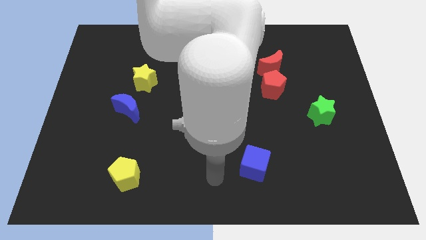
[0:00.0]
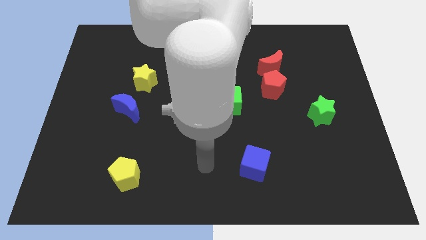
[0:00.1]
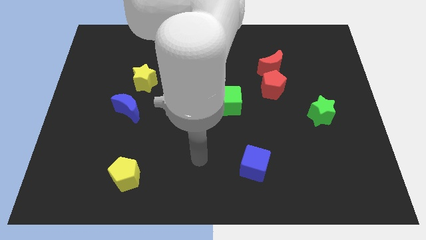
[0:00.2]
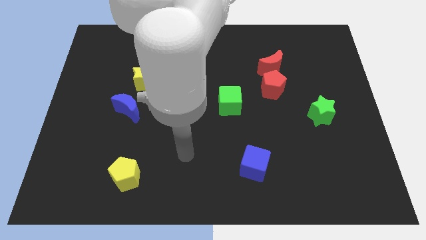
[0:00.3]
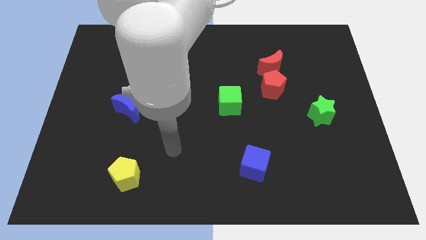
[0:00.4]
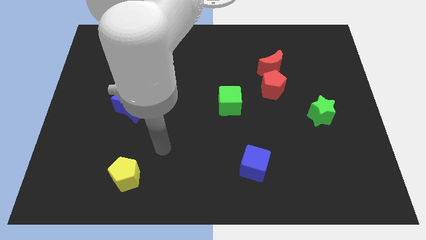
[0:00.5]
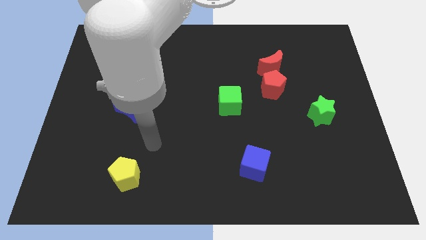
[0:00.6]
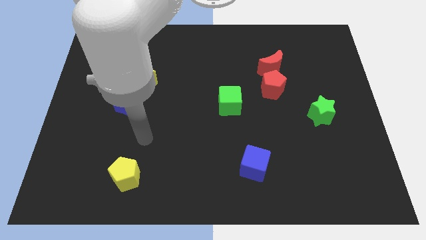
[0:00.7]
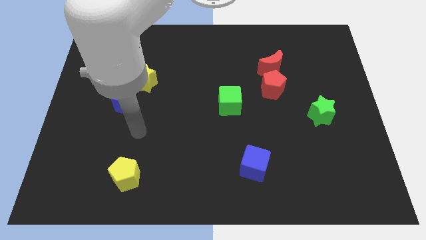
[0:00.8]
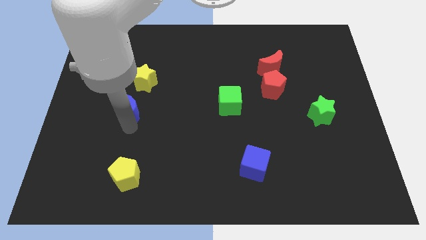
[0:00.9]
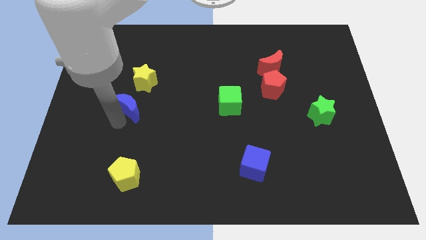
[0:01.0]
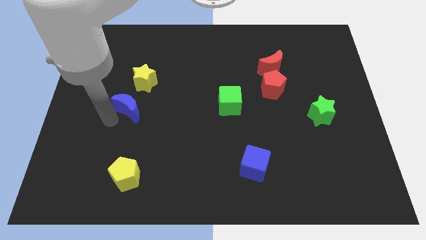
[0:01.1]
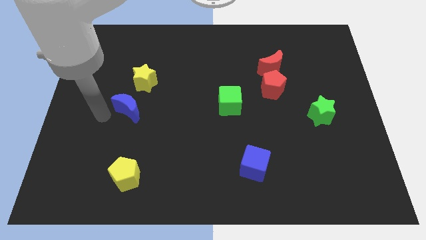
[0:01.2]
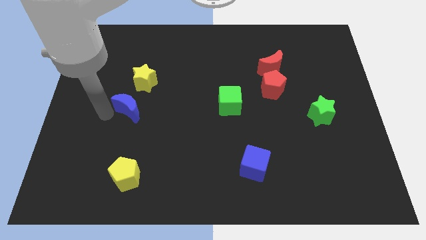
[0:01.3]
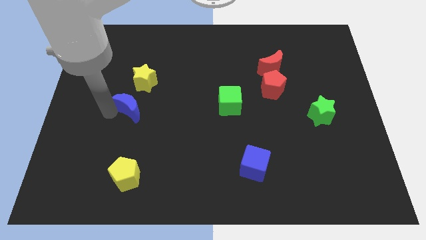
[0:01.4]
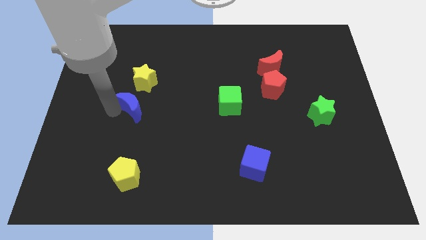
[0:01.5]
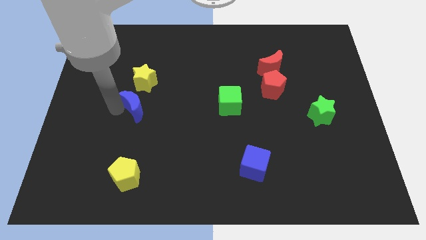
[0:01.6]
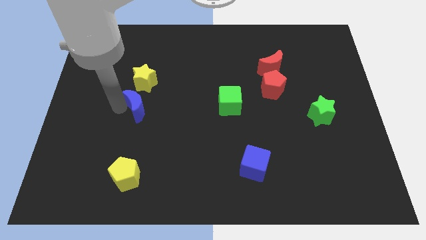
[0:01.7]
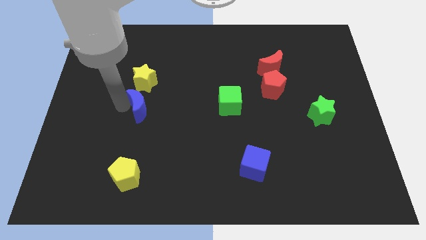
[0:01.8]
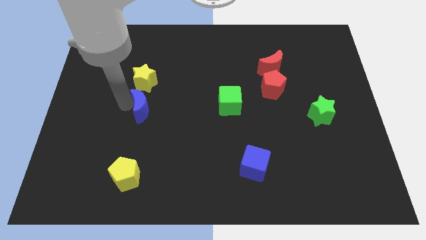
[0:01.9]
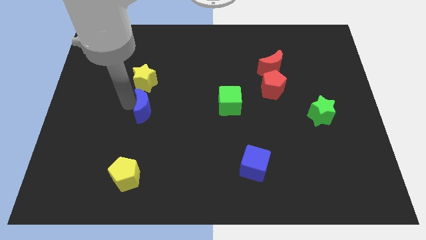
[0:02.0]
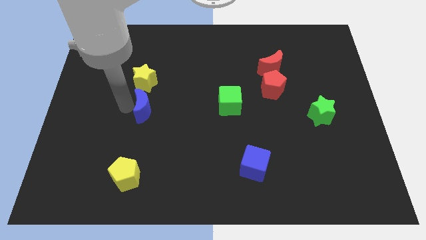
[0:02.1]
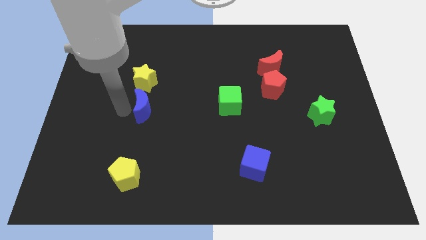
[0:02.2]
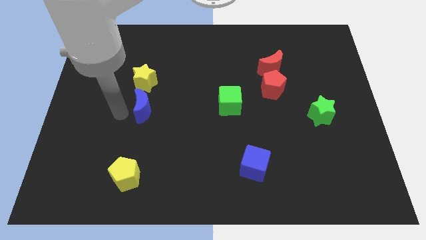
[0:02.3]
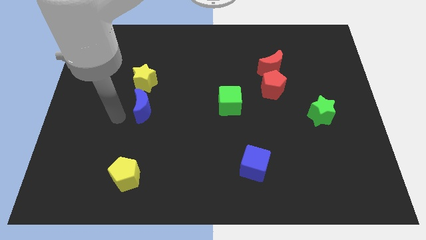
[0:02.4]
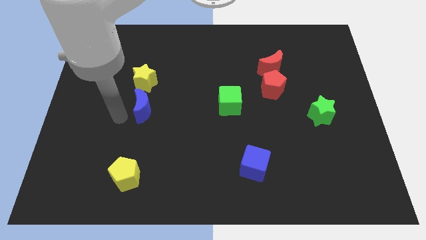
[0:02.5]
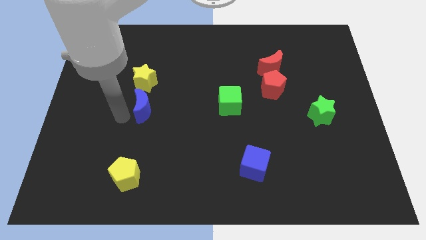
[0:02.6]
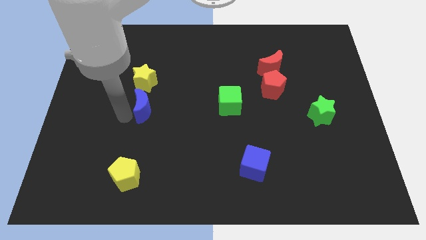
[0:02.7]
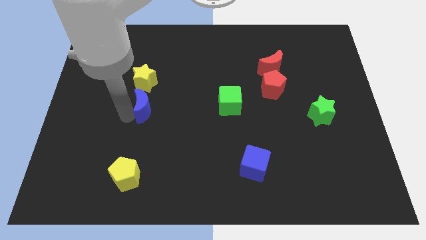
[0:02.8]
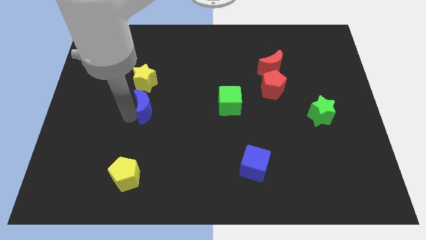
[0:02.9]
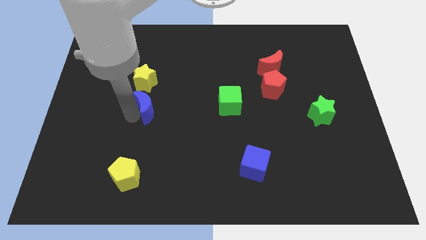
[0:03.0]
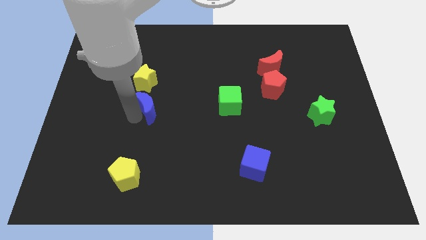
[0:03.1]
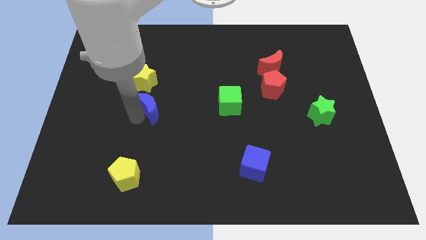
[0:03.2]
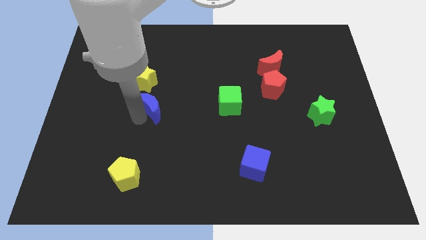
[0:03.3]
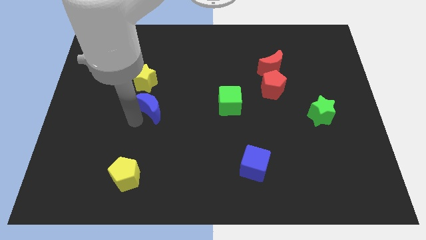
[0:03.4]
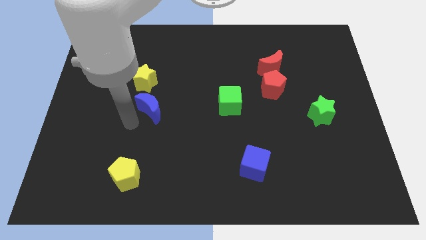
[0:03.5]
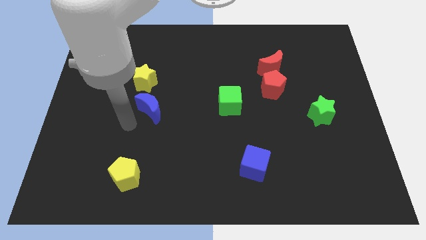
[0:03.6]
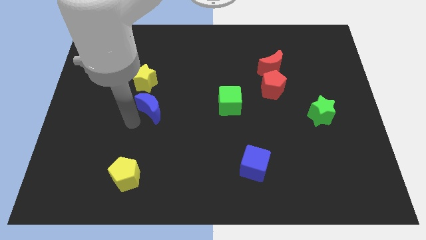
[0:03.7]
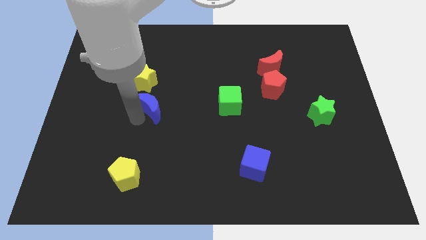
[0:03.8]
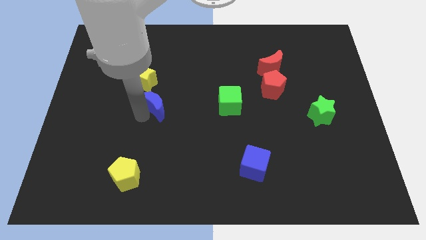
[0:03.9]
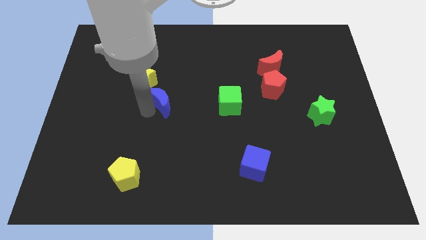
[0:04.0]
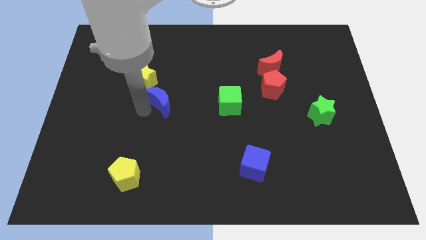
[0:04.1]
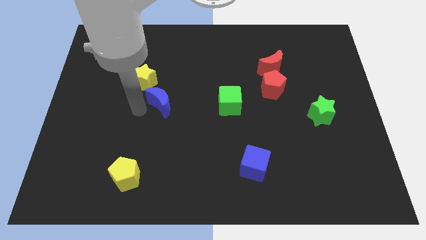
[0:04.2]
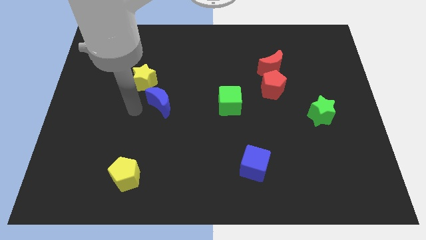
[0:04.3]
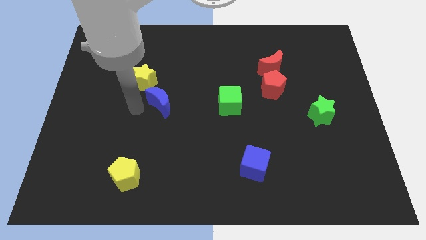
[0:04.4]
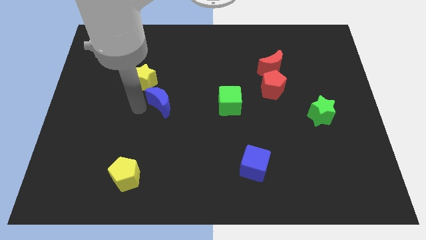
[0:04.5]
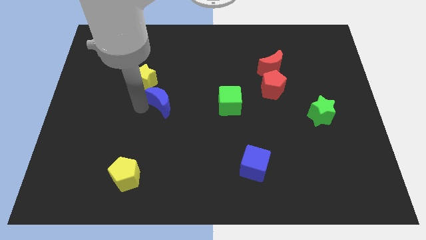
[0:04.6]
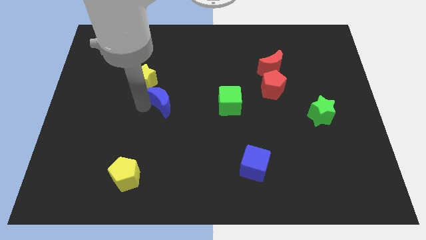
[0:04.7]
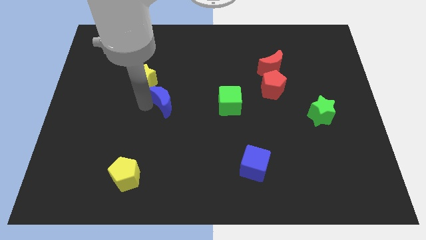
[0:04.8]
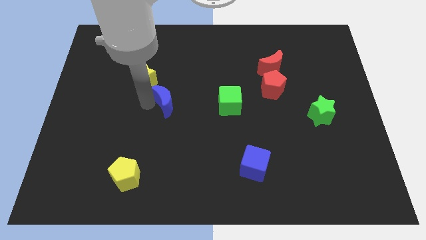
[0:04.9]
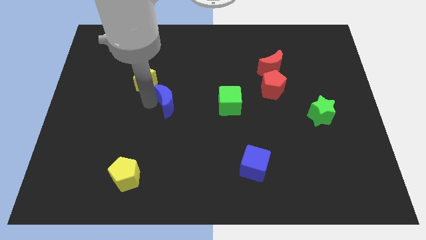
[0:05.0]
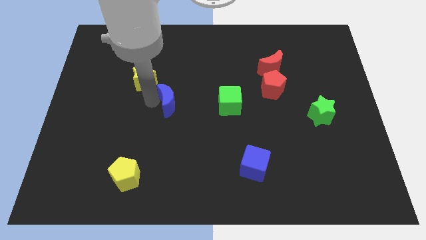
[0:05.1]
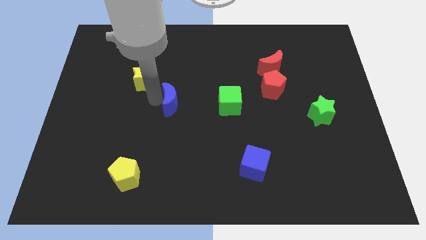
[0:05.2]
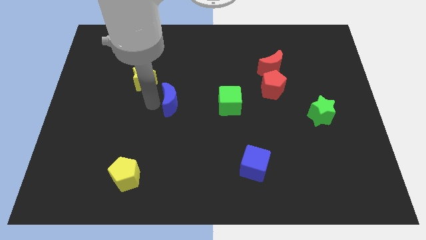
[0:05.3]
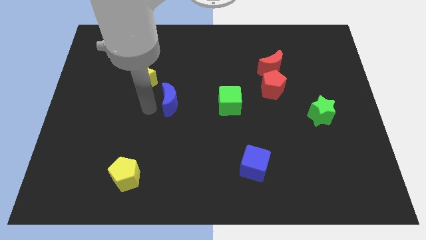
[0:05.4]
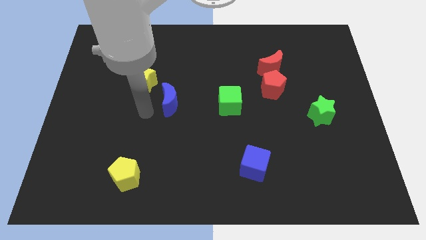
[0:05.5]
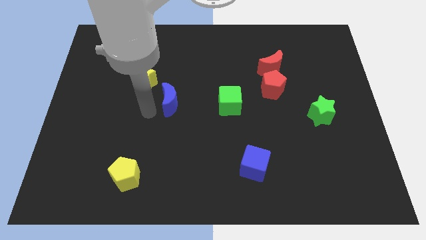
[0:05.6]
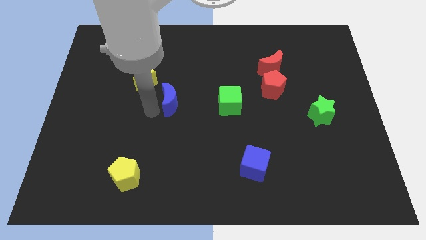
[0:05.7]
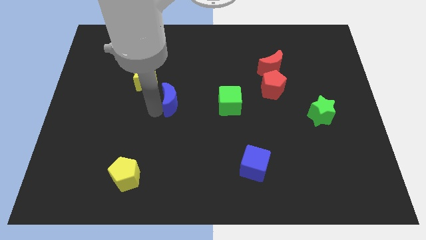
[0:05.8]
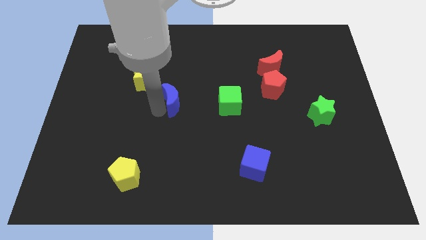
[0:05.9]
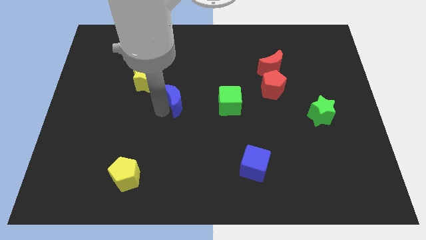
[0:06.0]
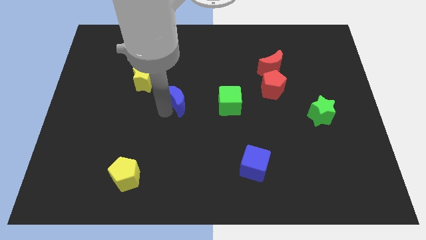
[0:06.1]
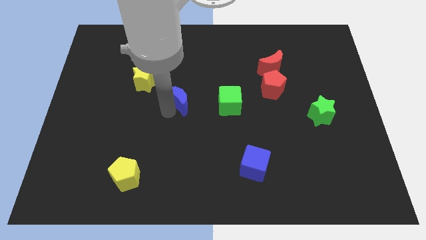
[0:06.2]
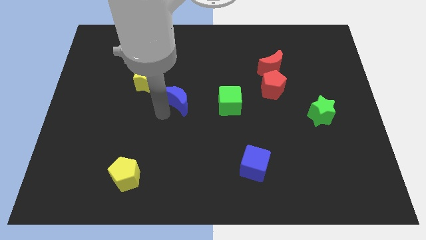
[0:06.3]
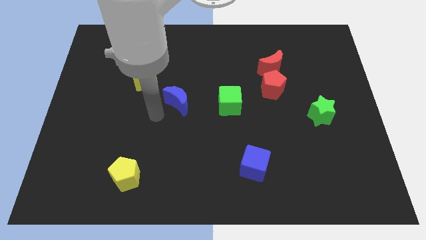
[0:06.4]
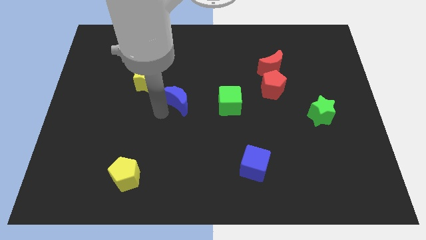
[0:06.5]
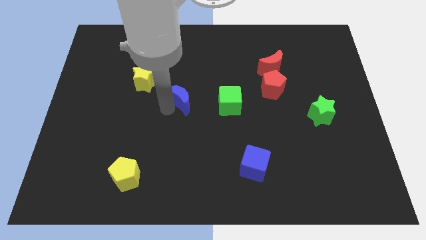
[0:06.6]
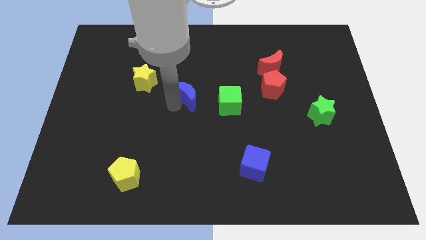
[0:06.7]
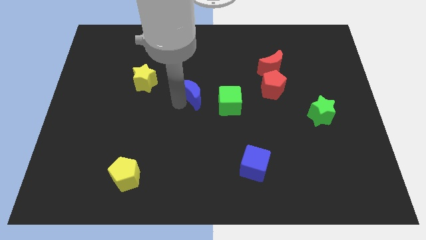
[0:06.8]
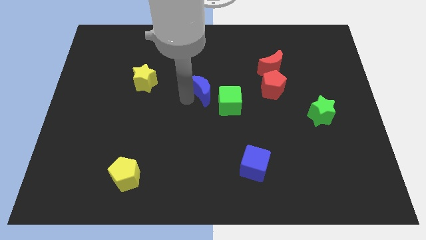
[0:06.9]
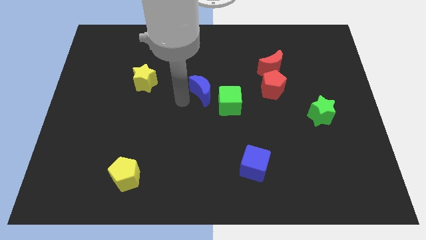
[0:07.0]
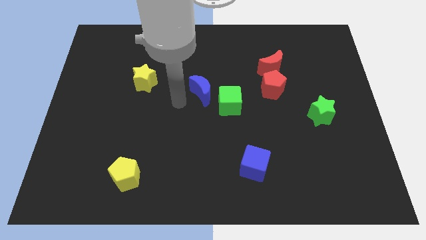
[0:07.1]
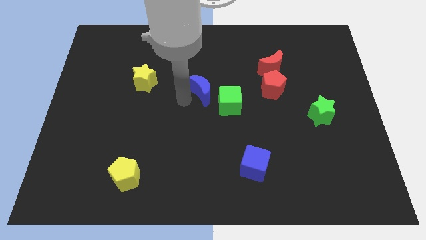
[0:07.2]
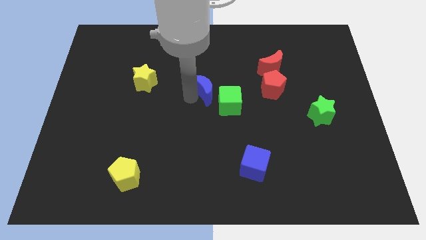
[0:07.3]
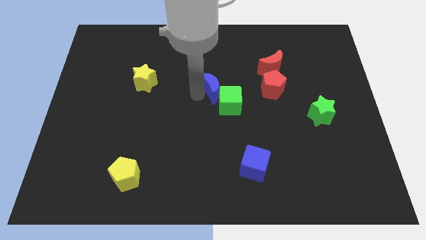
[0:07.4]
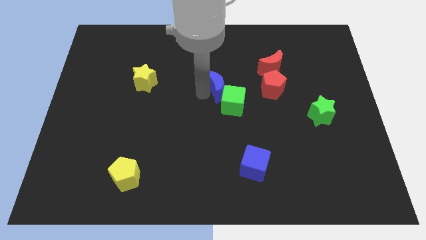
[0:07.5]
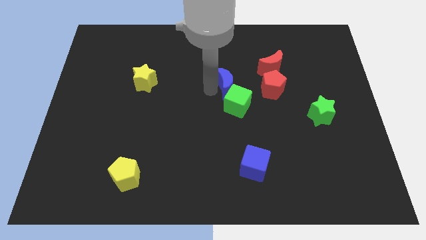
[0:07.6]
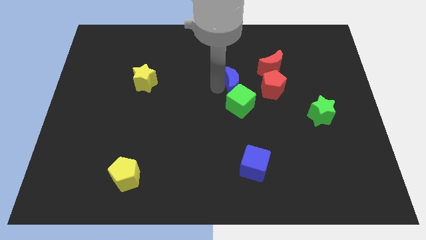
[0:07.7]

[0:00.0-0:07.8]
slide the blue moon diagonally down and to the left of the red moon

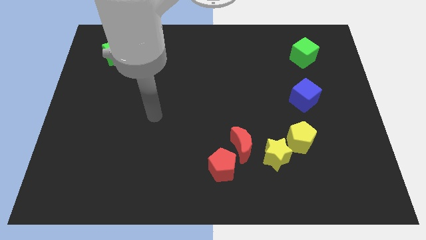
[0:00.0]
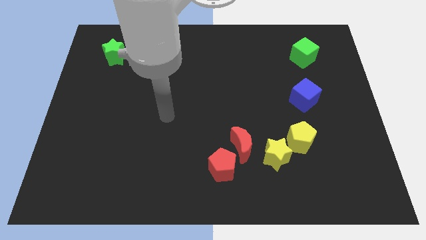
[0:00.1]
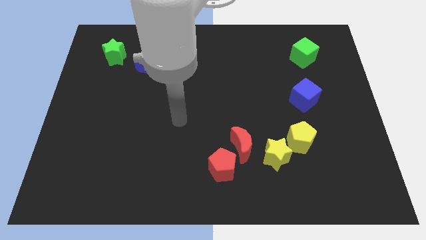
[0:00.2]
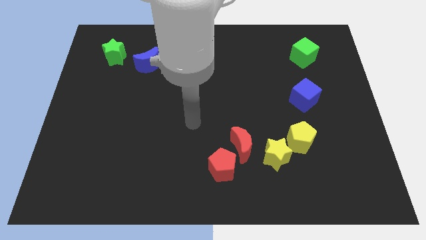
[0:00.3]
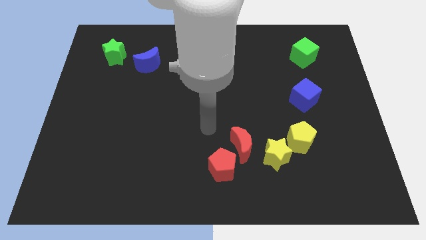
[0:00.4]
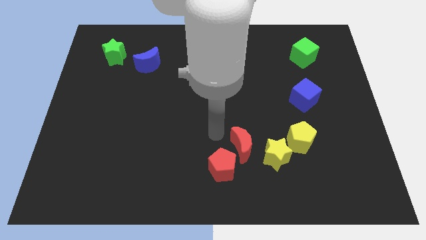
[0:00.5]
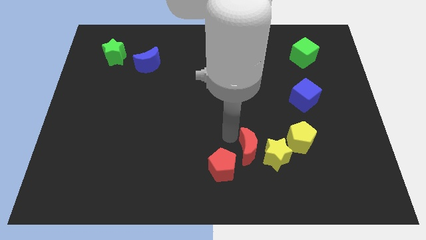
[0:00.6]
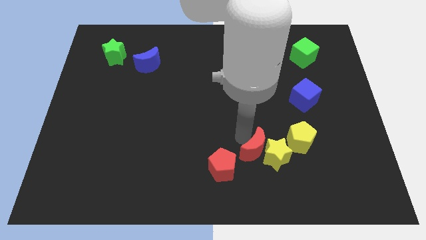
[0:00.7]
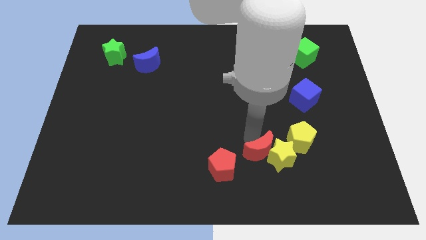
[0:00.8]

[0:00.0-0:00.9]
put the yellow star below the yellow pentagon

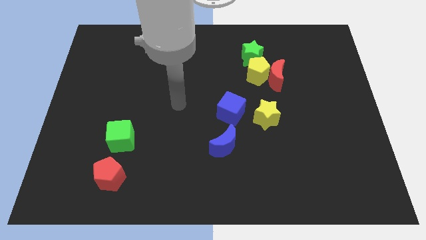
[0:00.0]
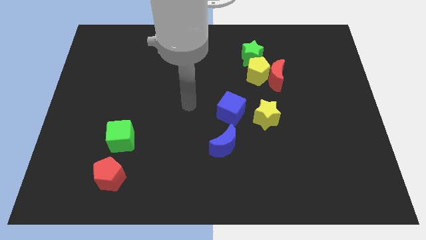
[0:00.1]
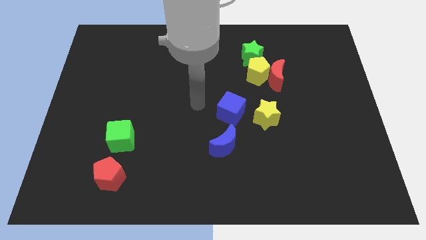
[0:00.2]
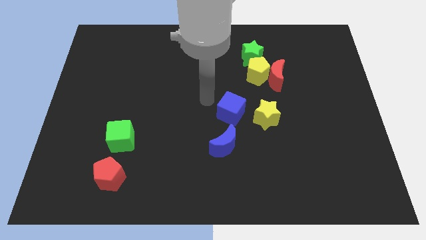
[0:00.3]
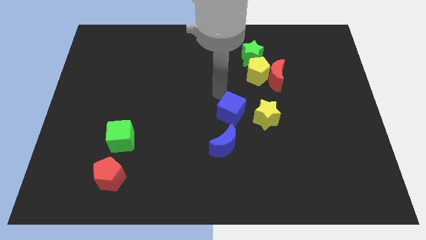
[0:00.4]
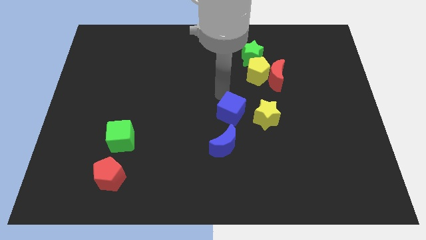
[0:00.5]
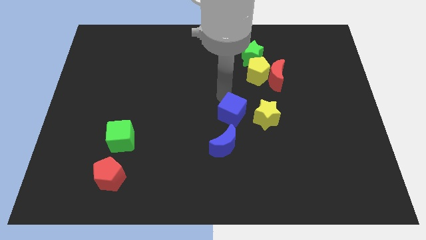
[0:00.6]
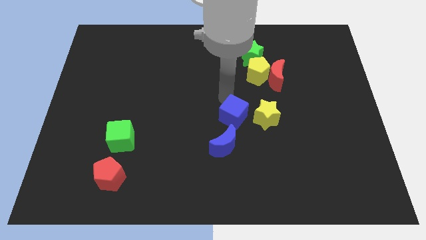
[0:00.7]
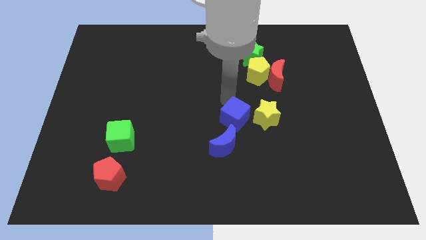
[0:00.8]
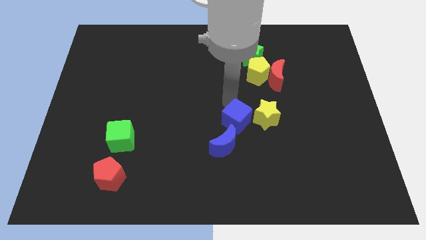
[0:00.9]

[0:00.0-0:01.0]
slide the blue cube to the bottom left side of the yellow star
